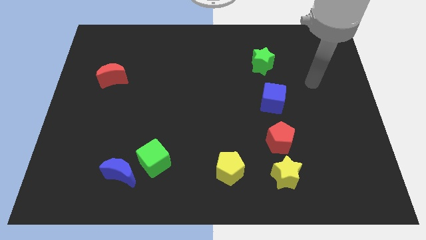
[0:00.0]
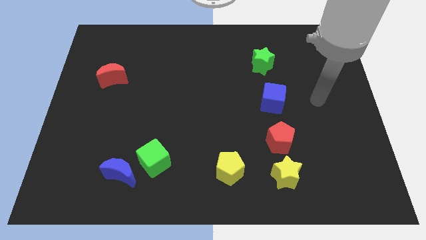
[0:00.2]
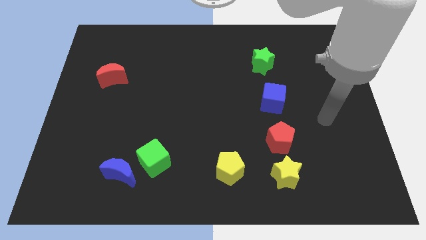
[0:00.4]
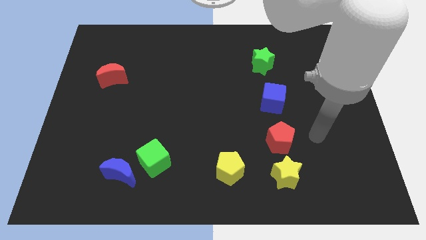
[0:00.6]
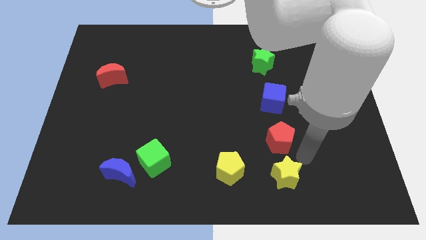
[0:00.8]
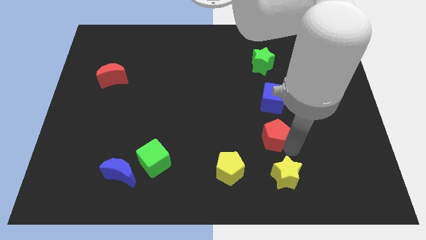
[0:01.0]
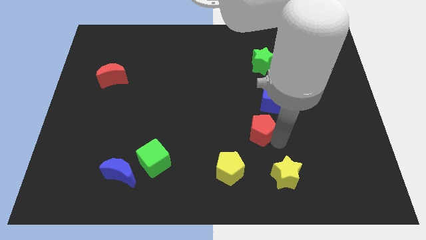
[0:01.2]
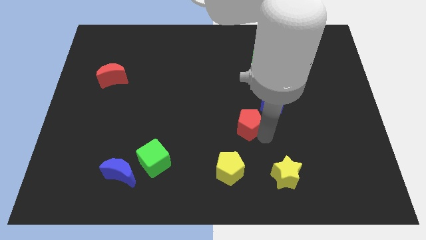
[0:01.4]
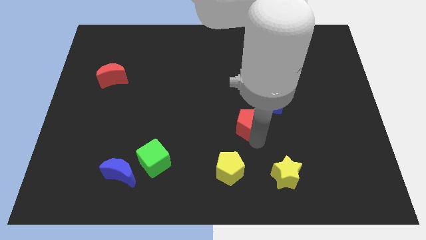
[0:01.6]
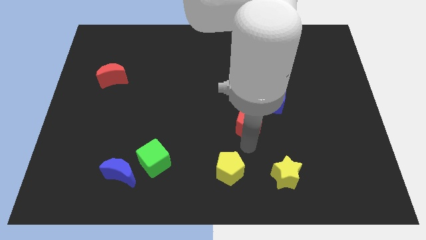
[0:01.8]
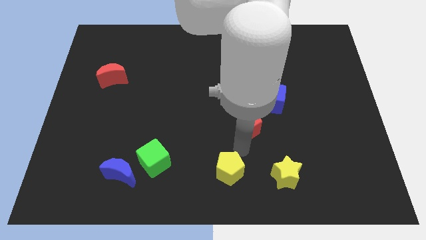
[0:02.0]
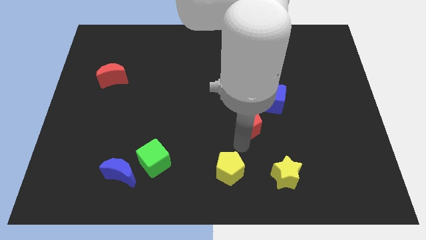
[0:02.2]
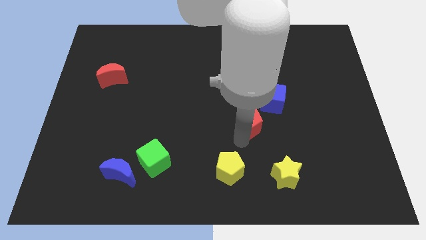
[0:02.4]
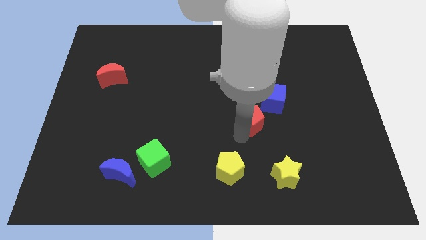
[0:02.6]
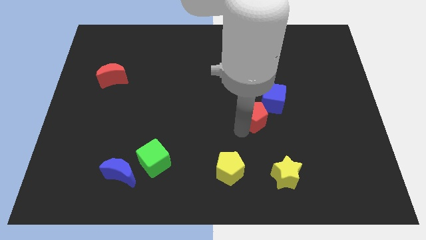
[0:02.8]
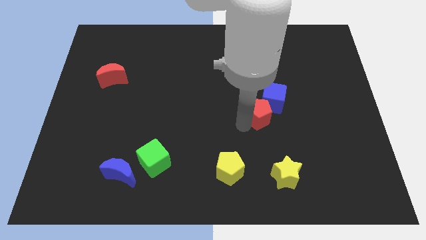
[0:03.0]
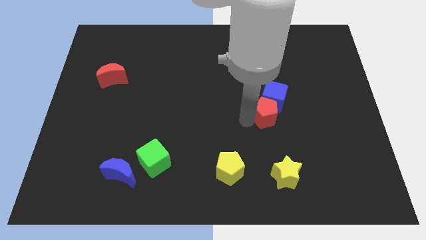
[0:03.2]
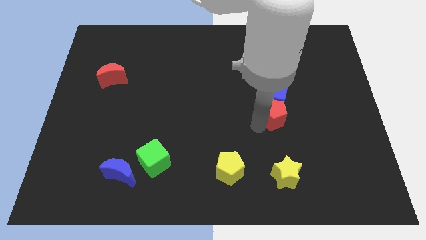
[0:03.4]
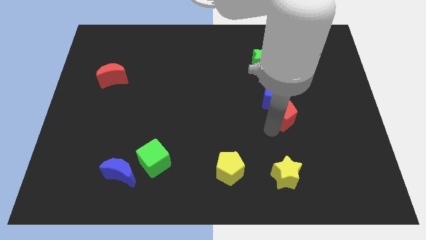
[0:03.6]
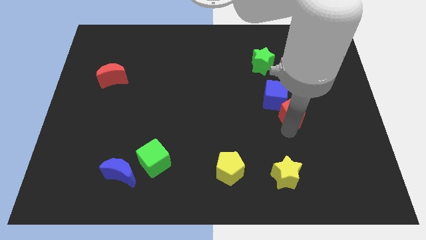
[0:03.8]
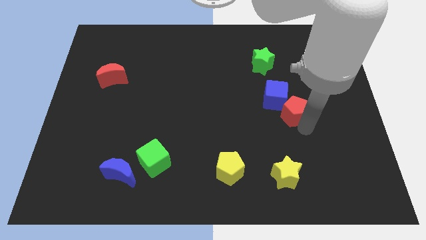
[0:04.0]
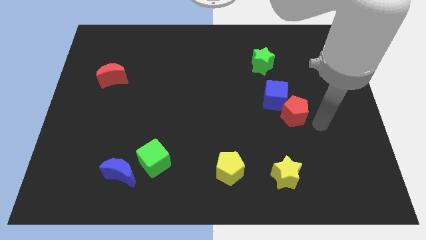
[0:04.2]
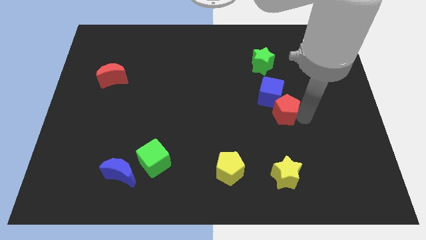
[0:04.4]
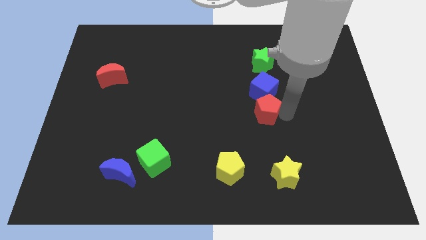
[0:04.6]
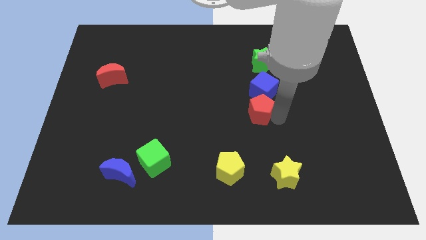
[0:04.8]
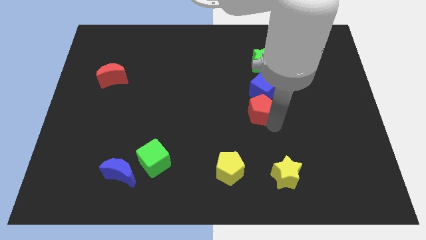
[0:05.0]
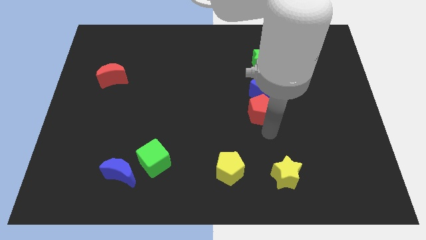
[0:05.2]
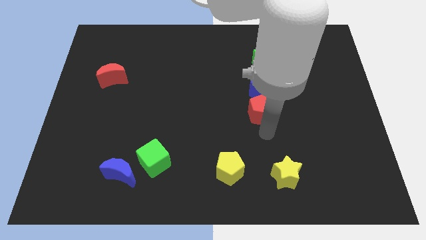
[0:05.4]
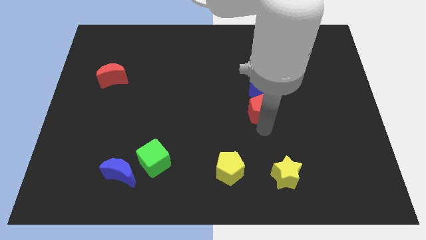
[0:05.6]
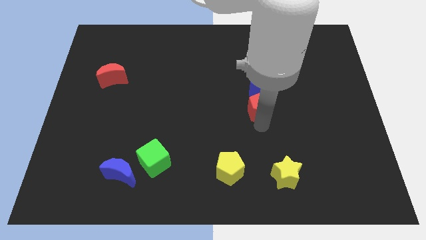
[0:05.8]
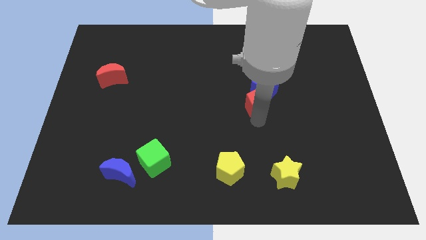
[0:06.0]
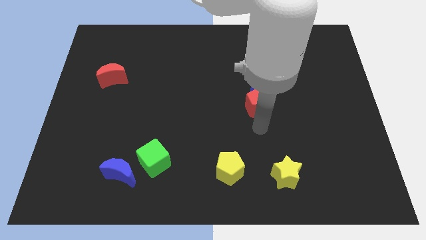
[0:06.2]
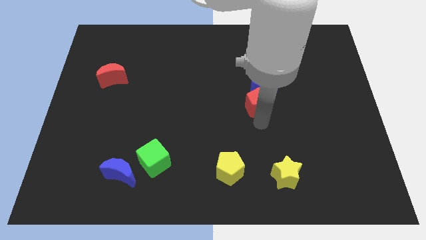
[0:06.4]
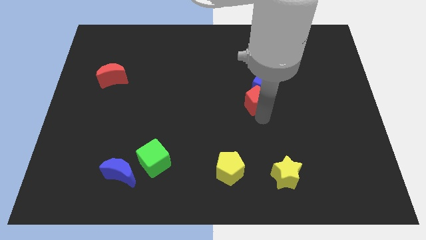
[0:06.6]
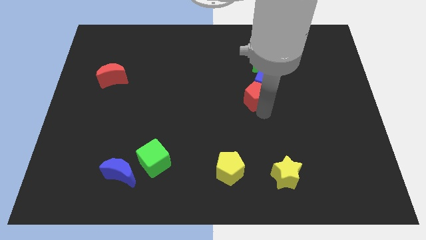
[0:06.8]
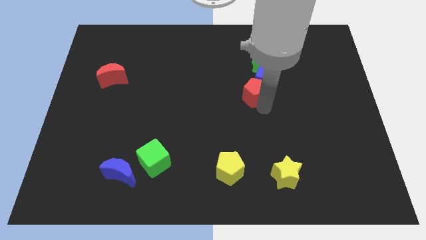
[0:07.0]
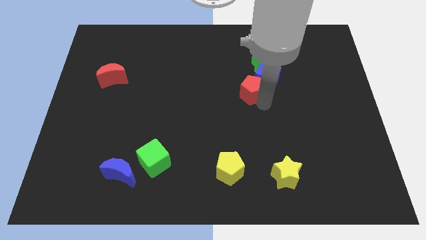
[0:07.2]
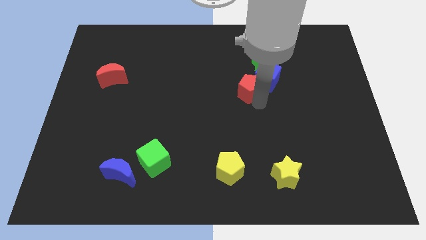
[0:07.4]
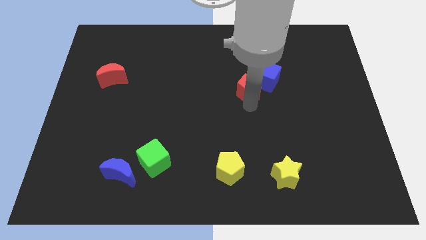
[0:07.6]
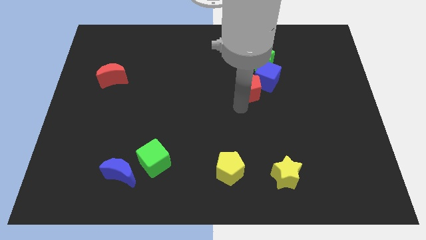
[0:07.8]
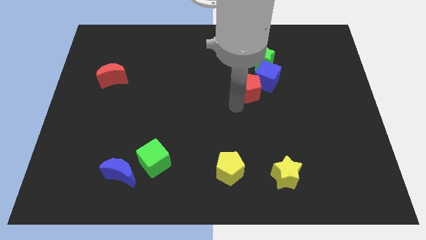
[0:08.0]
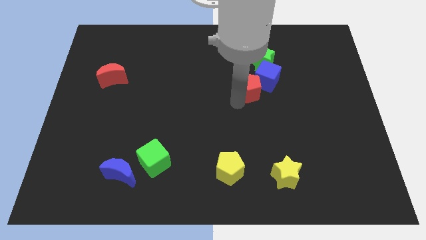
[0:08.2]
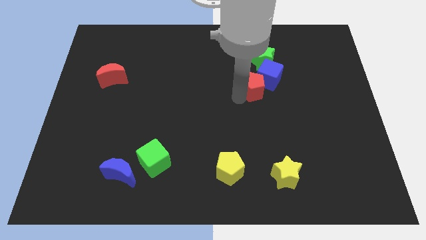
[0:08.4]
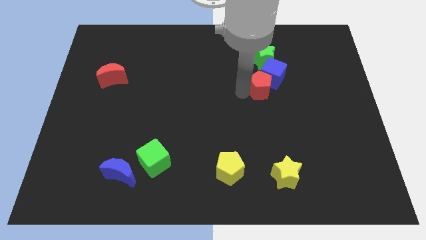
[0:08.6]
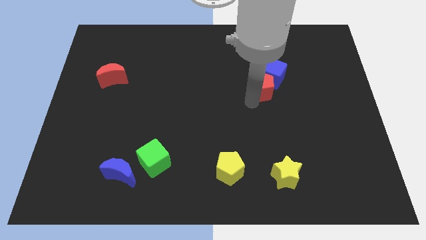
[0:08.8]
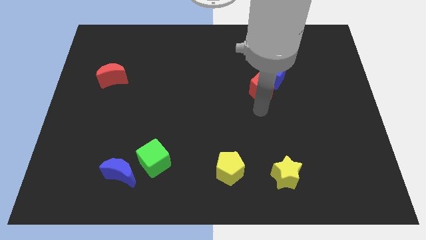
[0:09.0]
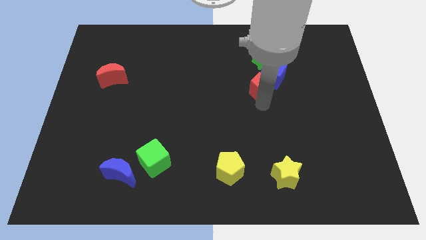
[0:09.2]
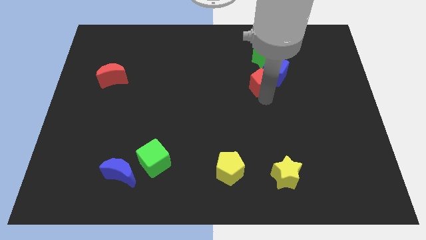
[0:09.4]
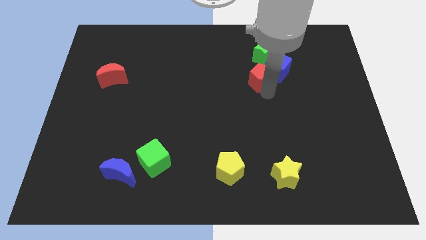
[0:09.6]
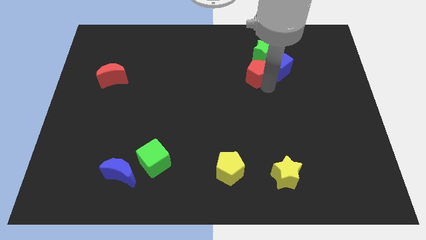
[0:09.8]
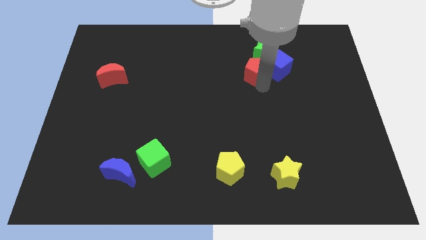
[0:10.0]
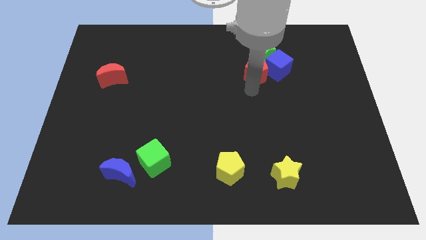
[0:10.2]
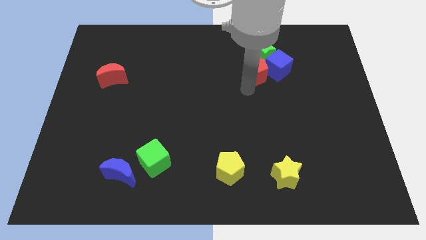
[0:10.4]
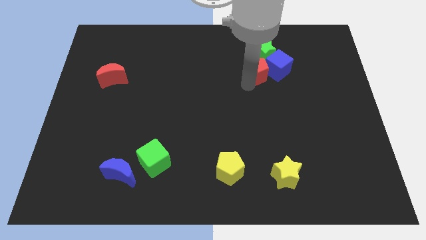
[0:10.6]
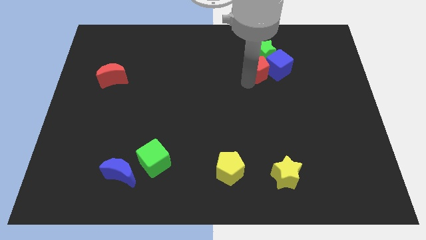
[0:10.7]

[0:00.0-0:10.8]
slide the red pentagon close to the green star

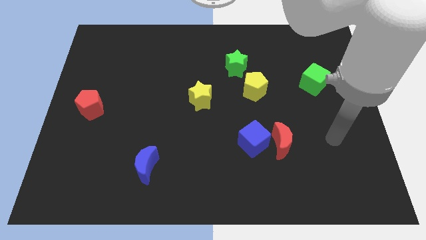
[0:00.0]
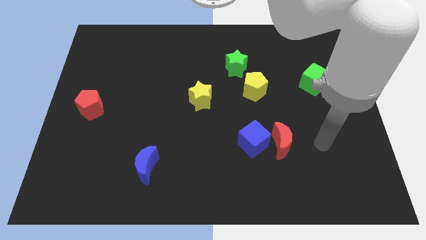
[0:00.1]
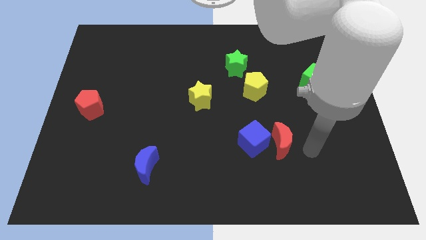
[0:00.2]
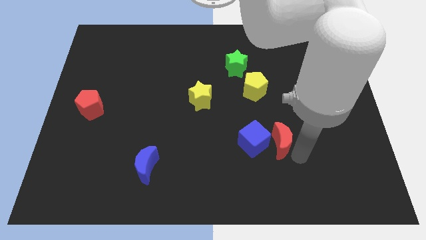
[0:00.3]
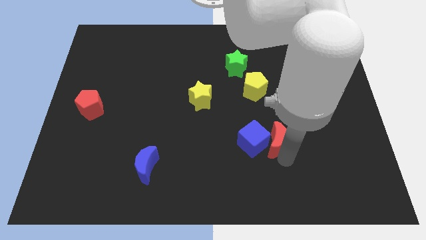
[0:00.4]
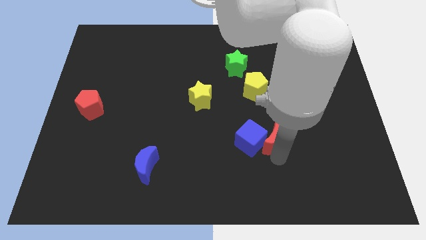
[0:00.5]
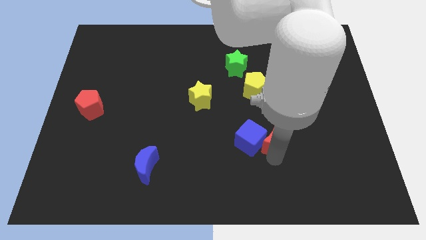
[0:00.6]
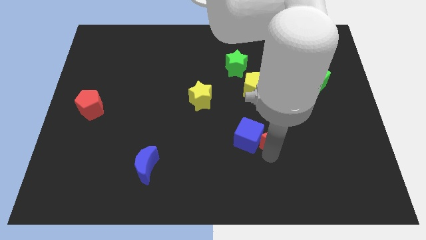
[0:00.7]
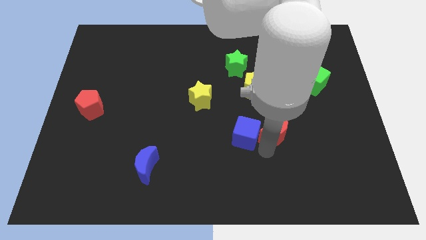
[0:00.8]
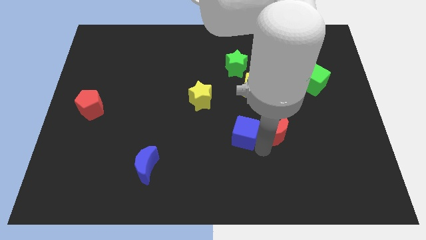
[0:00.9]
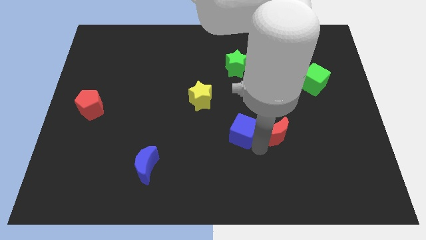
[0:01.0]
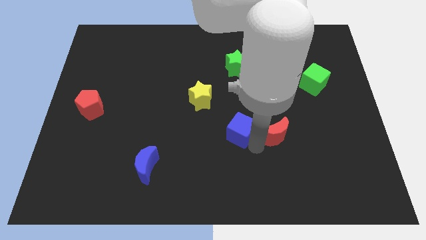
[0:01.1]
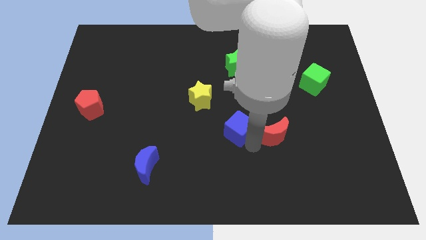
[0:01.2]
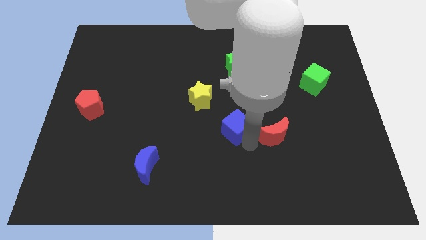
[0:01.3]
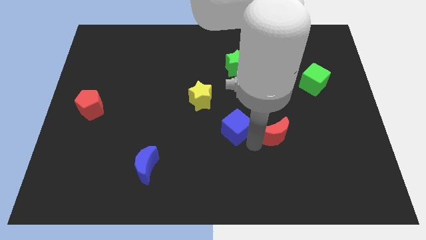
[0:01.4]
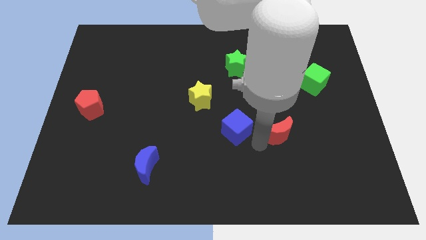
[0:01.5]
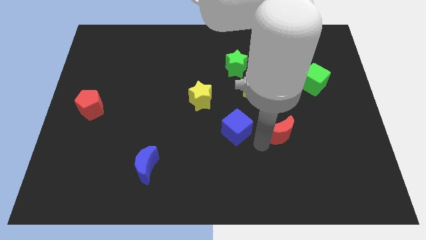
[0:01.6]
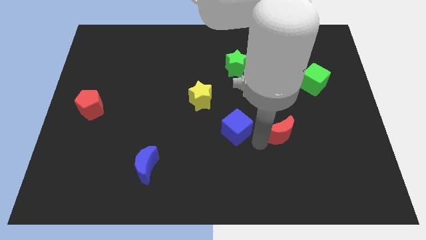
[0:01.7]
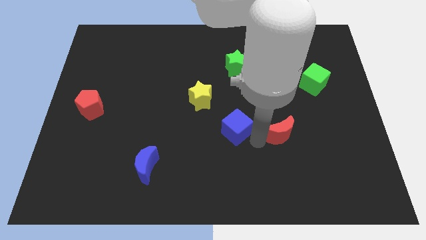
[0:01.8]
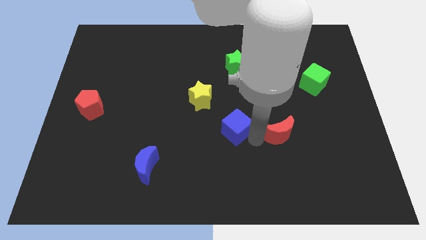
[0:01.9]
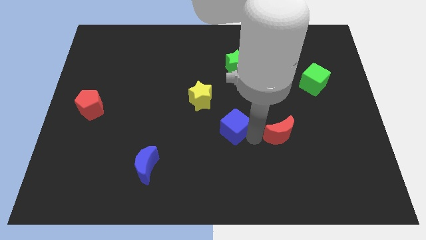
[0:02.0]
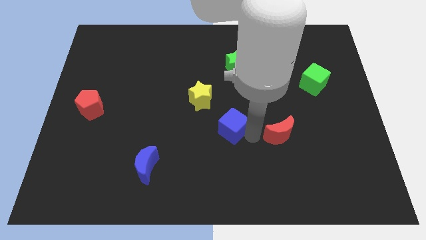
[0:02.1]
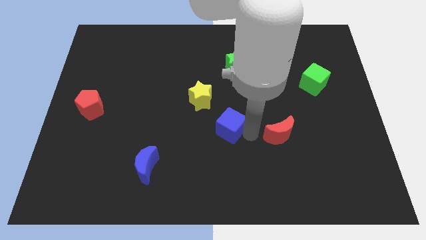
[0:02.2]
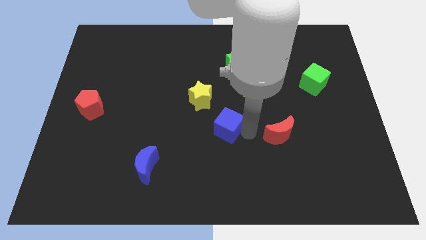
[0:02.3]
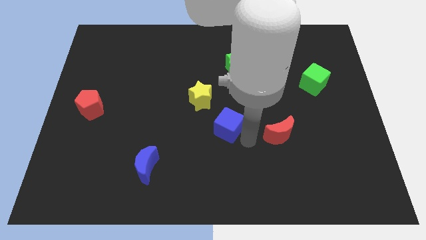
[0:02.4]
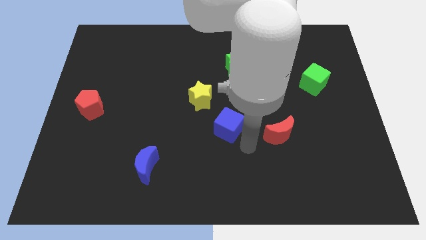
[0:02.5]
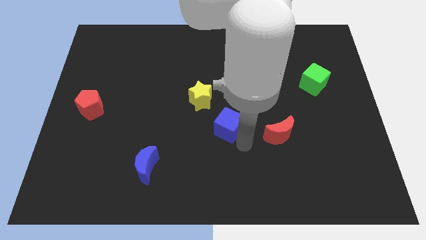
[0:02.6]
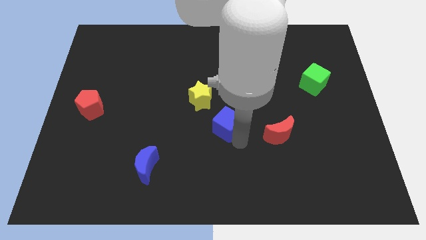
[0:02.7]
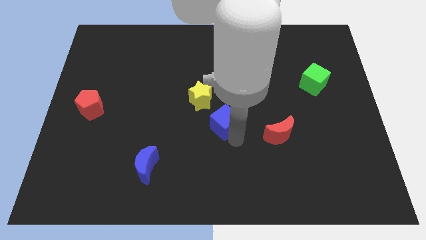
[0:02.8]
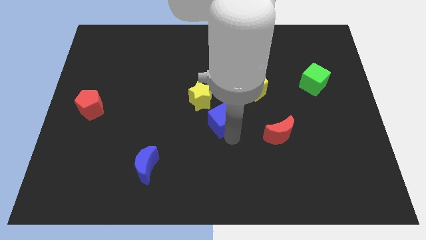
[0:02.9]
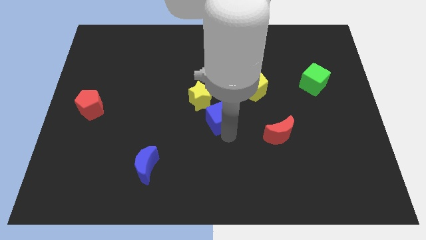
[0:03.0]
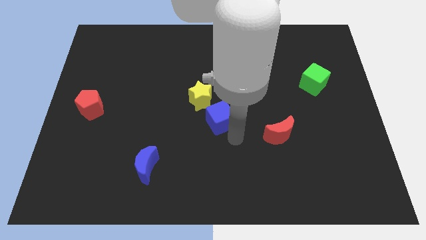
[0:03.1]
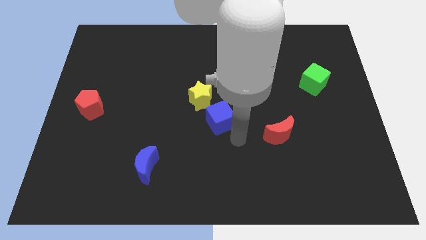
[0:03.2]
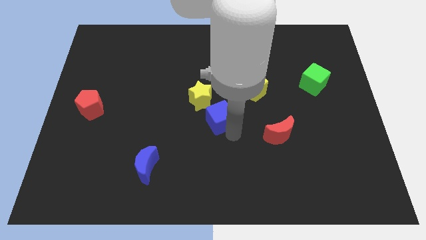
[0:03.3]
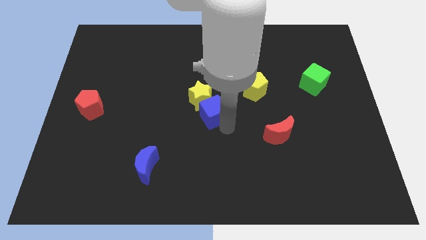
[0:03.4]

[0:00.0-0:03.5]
put the blue cube close to the yellow star
